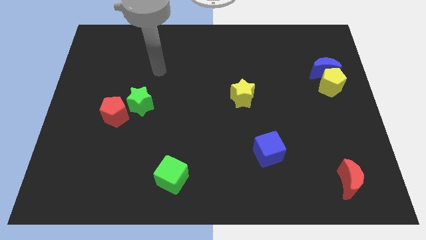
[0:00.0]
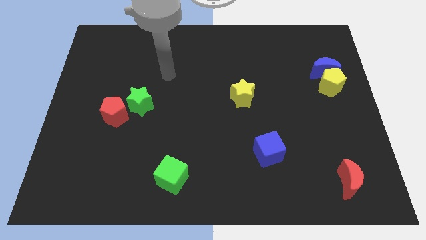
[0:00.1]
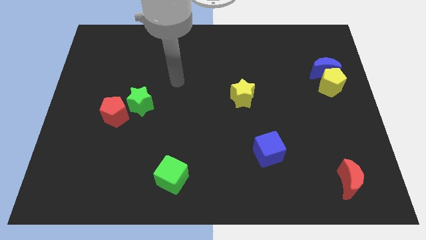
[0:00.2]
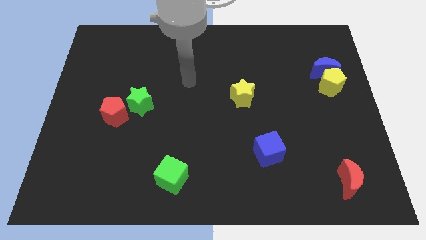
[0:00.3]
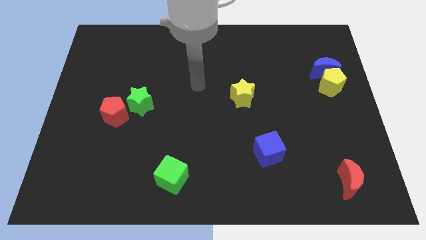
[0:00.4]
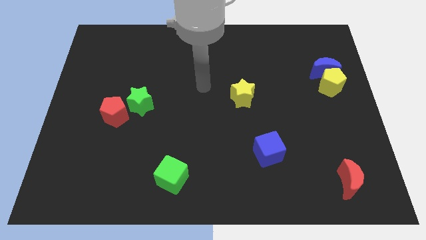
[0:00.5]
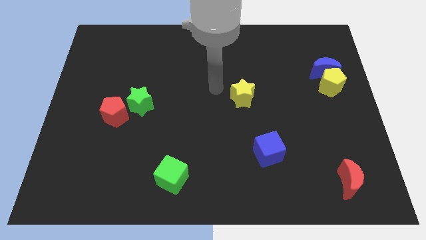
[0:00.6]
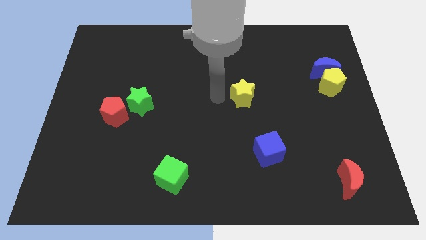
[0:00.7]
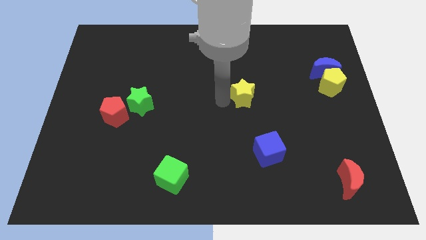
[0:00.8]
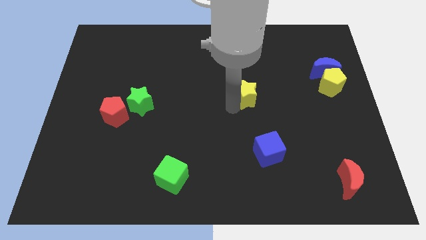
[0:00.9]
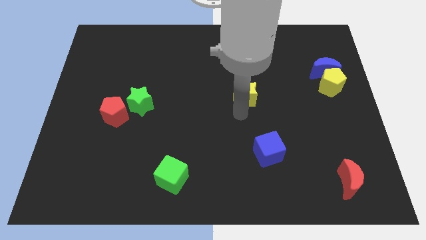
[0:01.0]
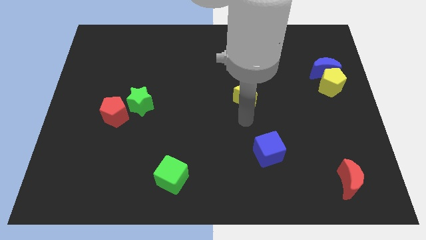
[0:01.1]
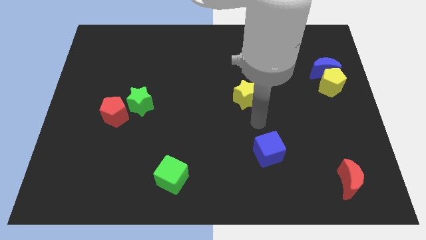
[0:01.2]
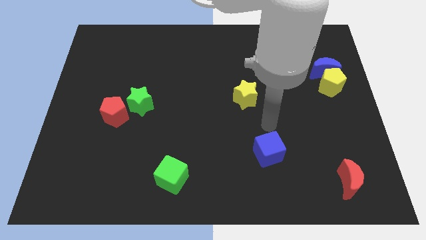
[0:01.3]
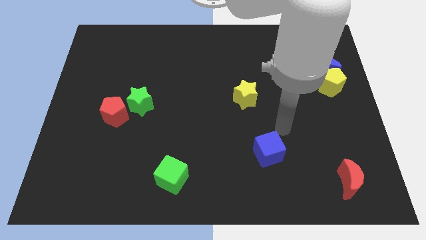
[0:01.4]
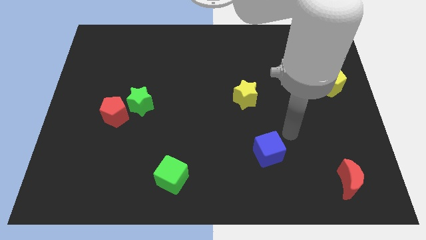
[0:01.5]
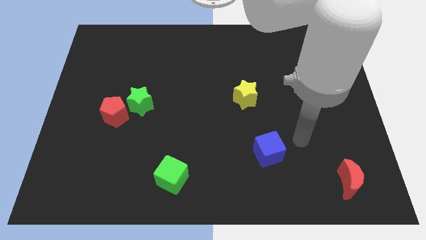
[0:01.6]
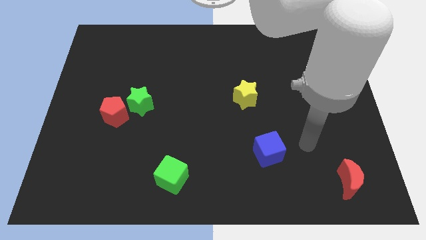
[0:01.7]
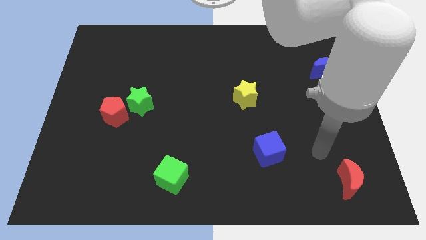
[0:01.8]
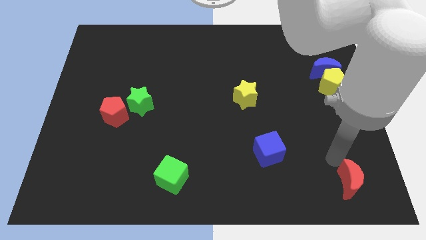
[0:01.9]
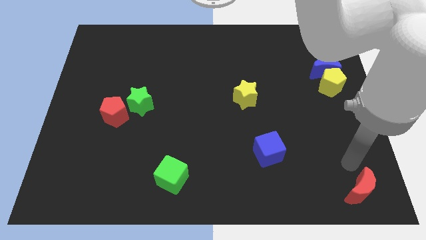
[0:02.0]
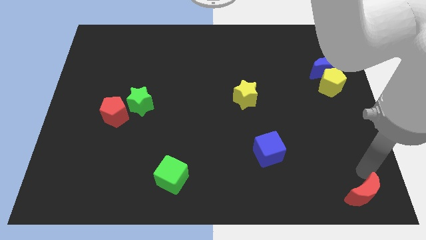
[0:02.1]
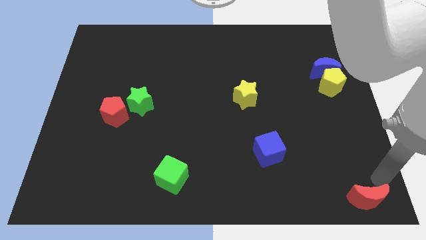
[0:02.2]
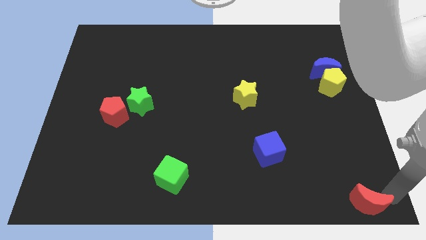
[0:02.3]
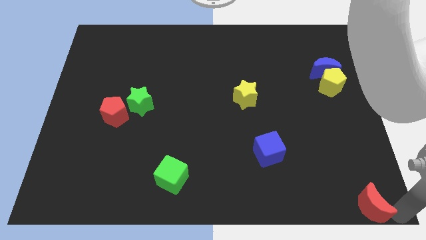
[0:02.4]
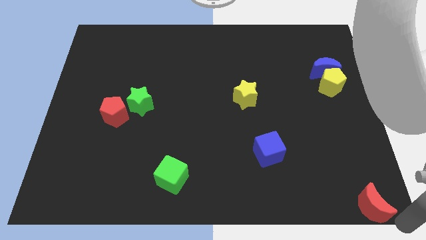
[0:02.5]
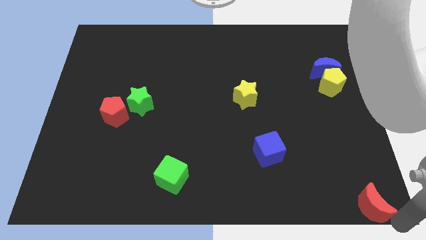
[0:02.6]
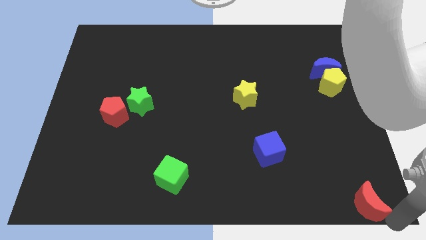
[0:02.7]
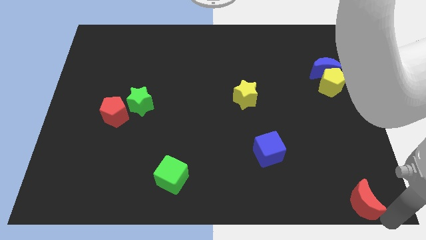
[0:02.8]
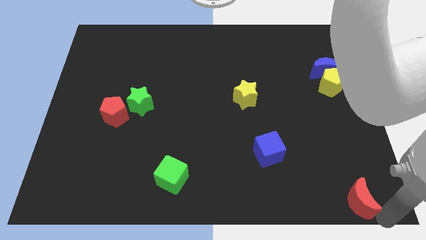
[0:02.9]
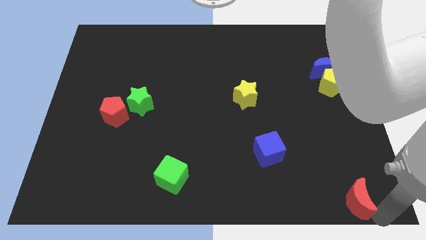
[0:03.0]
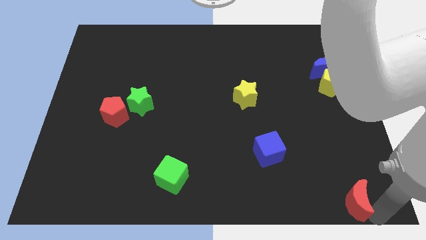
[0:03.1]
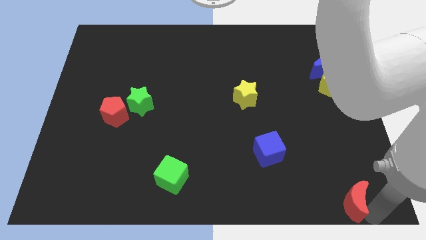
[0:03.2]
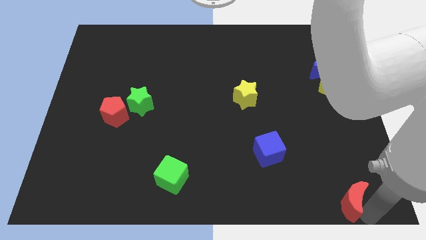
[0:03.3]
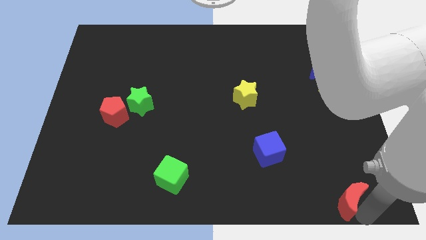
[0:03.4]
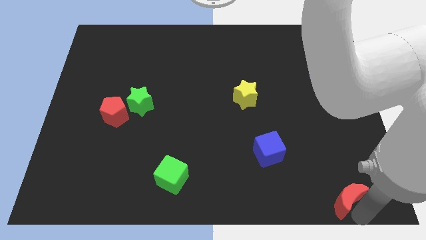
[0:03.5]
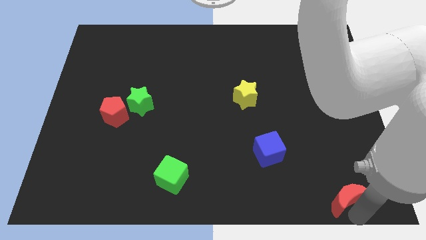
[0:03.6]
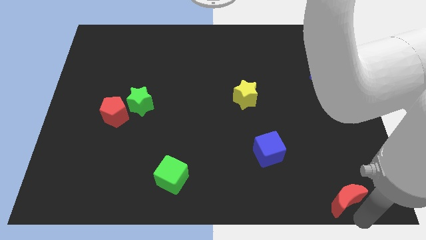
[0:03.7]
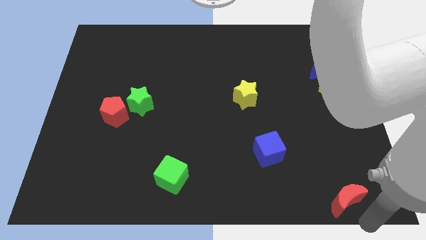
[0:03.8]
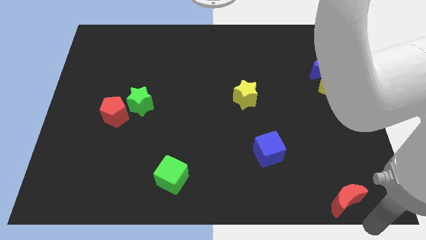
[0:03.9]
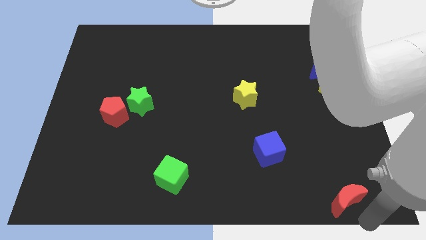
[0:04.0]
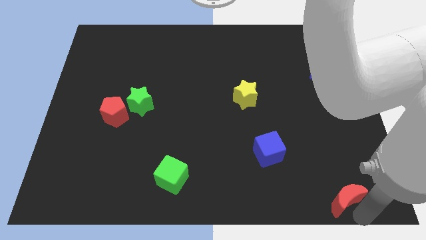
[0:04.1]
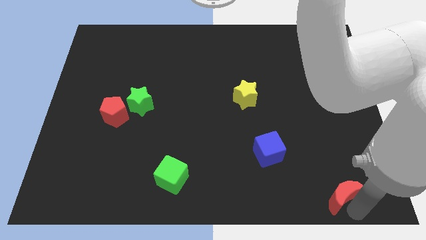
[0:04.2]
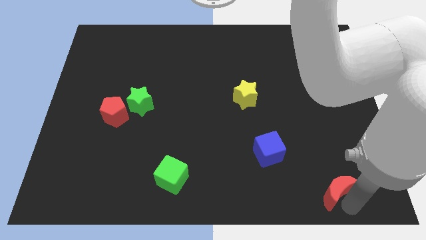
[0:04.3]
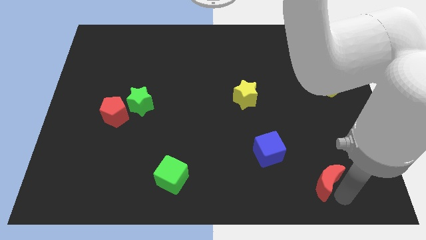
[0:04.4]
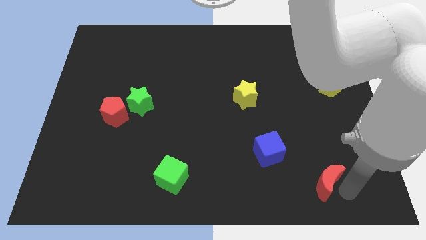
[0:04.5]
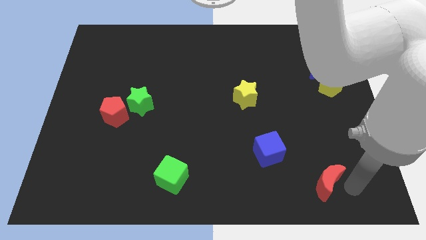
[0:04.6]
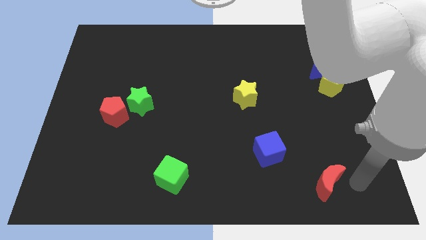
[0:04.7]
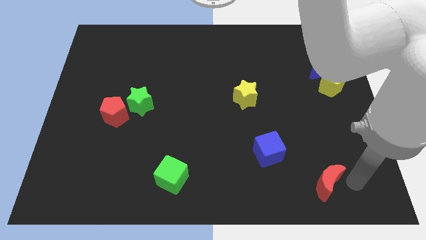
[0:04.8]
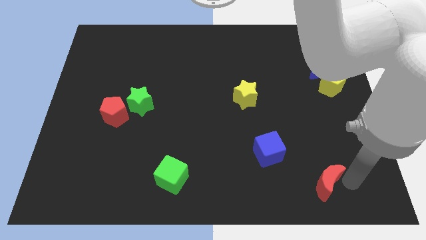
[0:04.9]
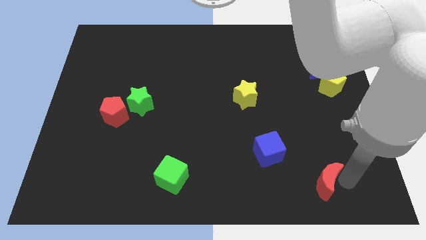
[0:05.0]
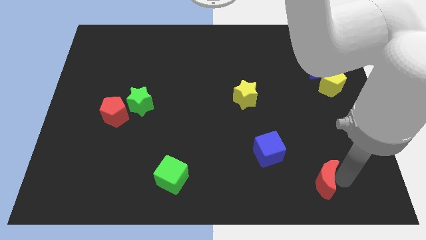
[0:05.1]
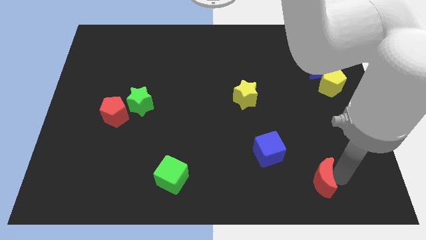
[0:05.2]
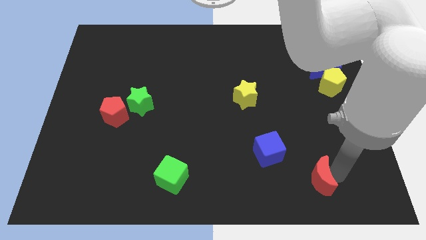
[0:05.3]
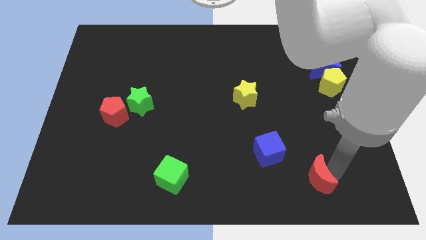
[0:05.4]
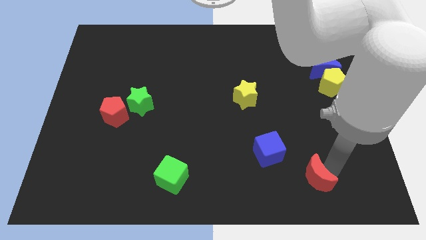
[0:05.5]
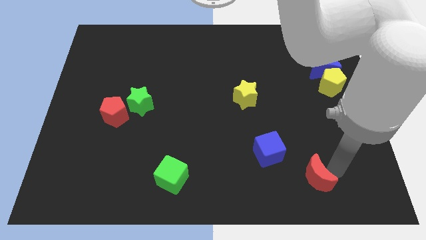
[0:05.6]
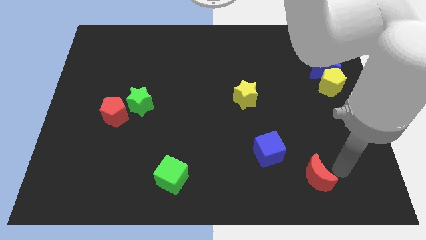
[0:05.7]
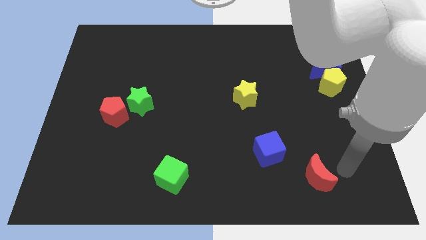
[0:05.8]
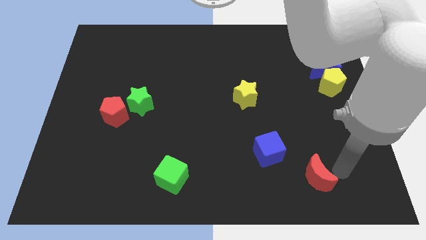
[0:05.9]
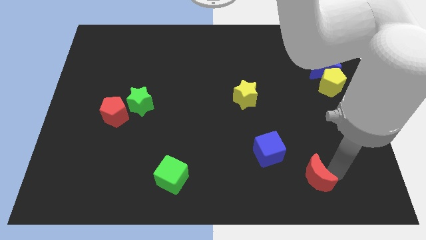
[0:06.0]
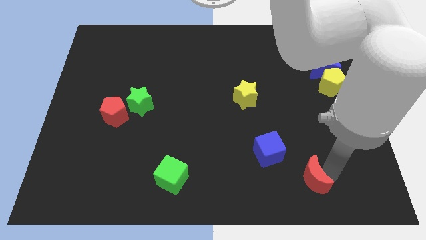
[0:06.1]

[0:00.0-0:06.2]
slightly slide the red moon to the left

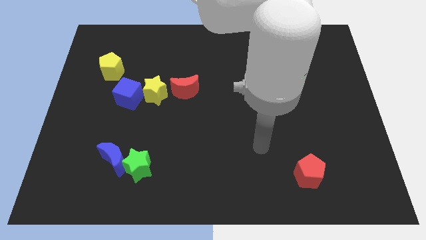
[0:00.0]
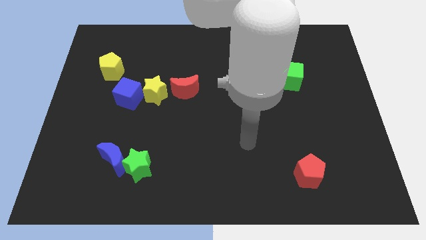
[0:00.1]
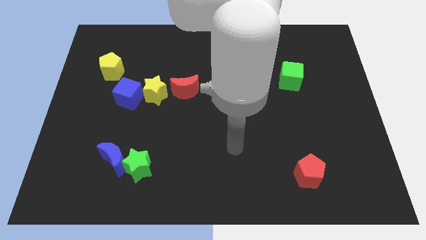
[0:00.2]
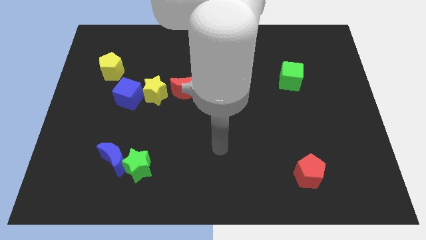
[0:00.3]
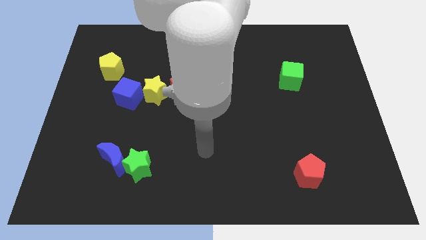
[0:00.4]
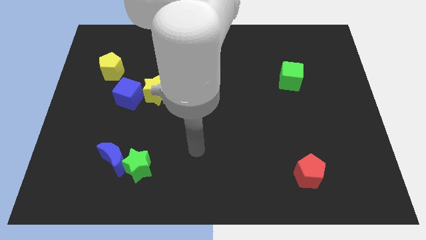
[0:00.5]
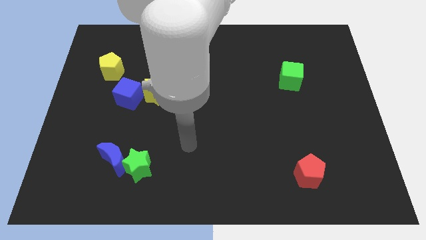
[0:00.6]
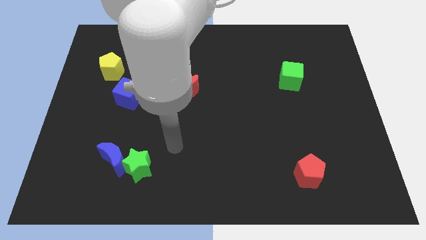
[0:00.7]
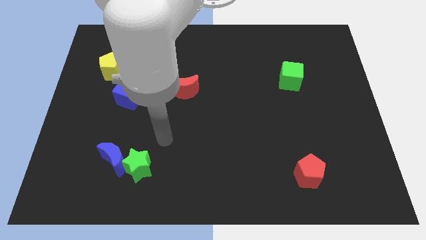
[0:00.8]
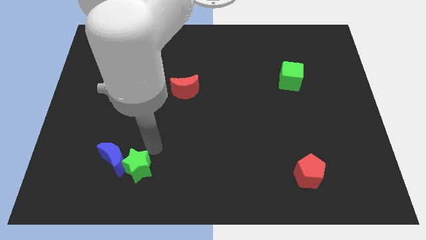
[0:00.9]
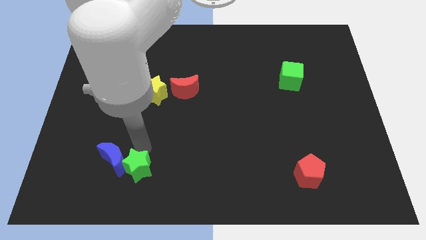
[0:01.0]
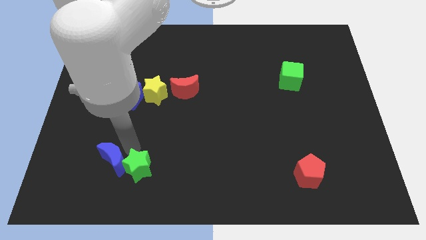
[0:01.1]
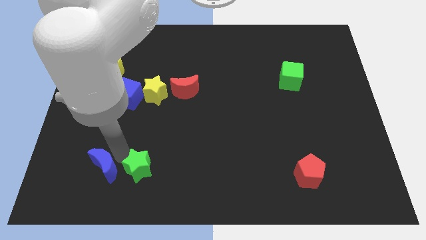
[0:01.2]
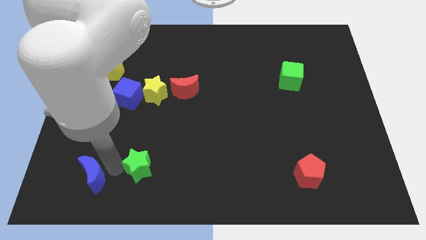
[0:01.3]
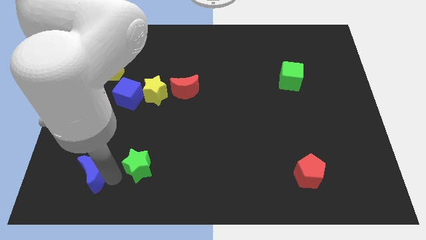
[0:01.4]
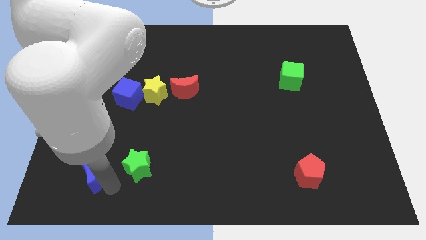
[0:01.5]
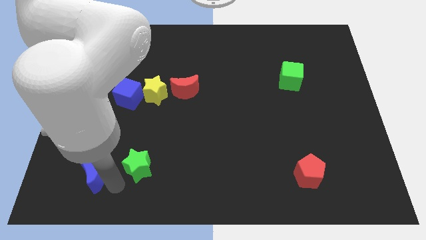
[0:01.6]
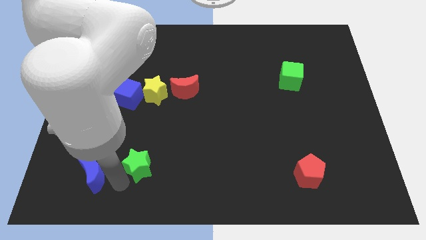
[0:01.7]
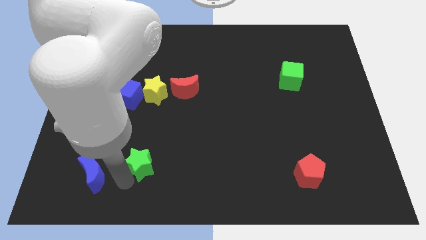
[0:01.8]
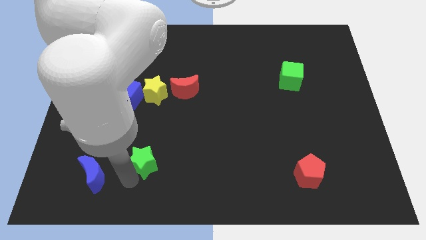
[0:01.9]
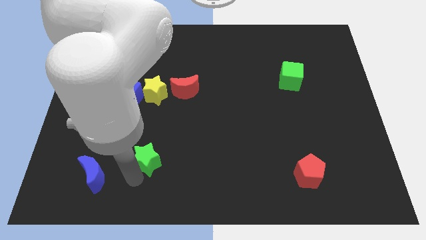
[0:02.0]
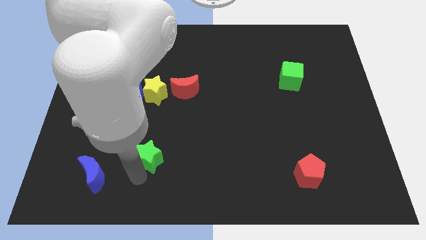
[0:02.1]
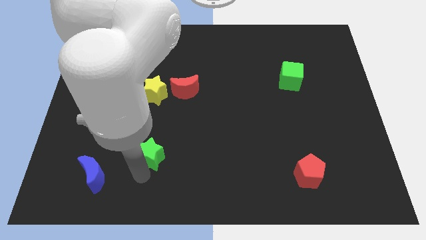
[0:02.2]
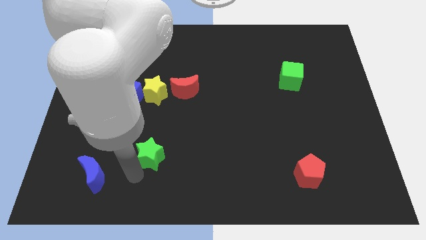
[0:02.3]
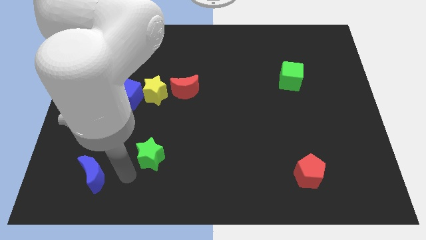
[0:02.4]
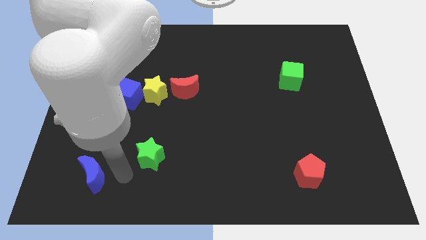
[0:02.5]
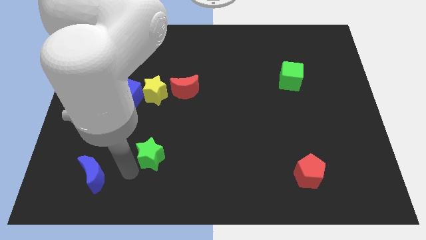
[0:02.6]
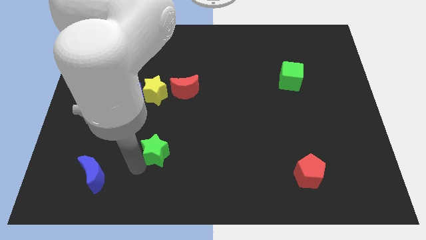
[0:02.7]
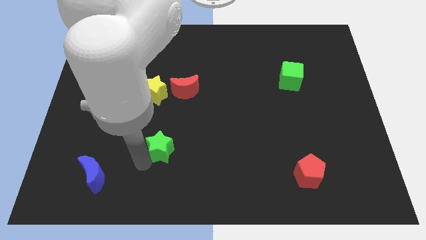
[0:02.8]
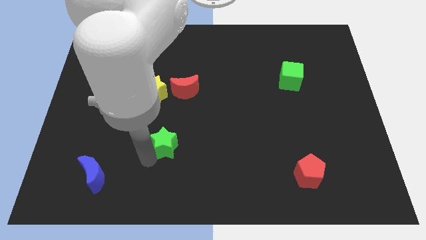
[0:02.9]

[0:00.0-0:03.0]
slightly move the green star diagonally up and to the right
